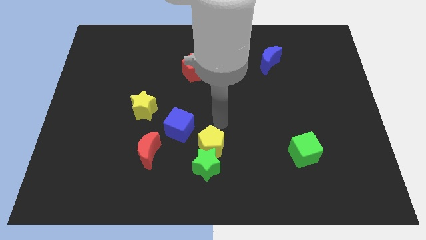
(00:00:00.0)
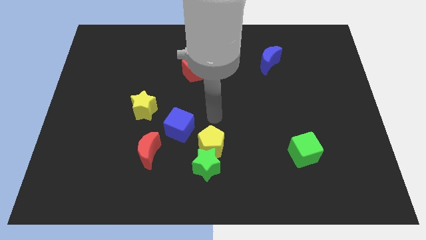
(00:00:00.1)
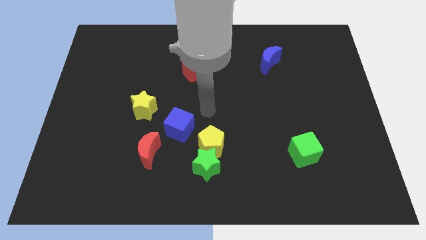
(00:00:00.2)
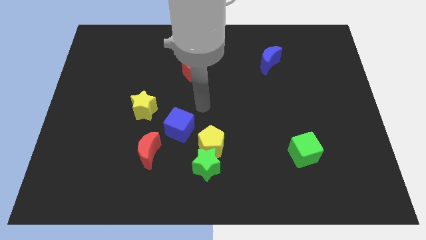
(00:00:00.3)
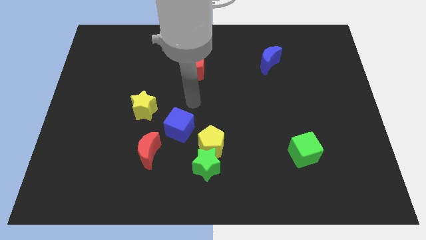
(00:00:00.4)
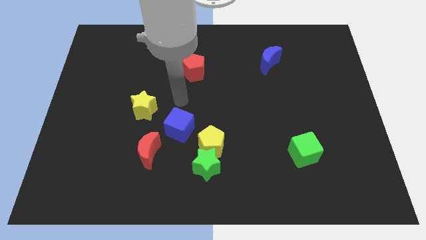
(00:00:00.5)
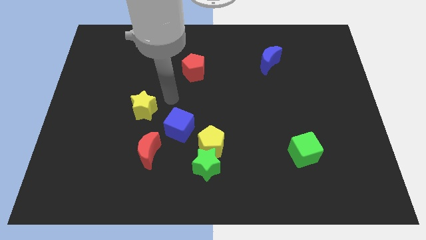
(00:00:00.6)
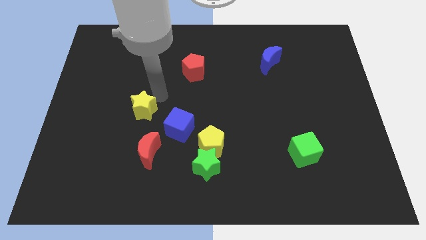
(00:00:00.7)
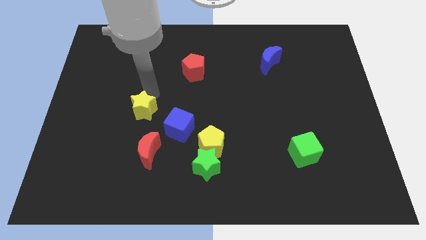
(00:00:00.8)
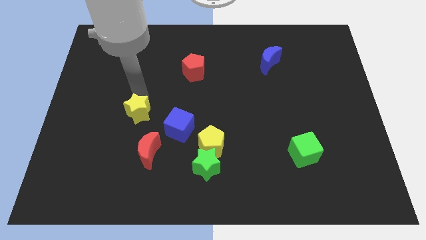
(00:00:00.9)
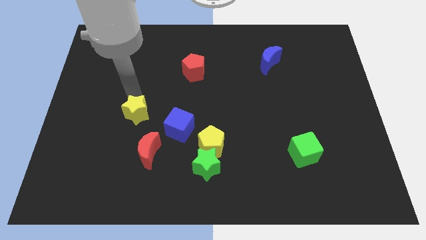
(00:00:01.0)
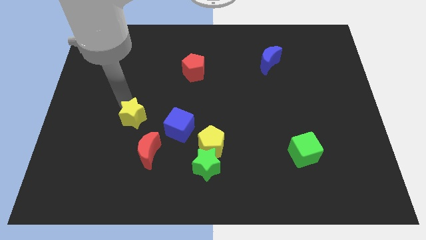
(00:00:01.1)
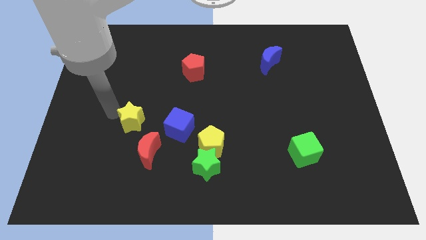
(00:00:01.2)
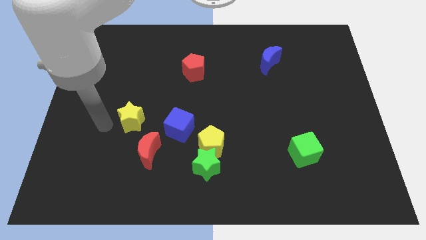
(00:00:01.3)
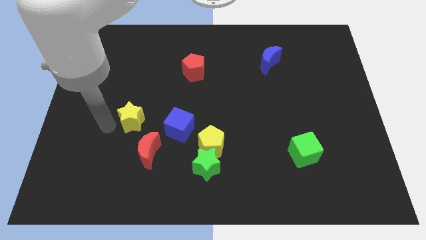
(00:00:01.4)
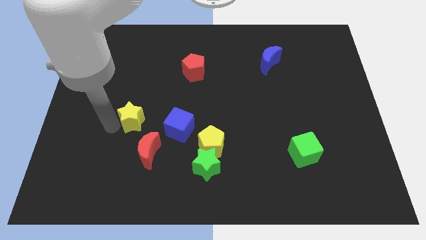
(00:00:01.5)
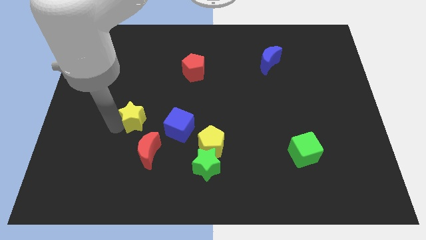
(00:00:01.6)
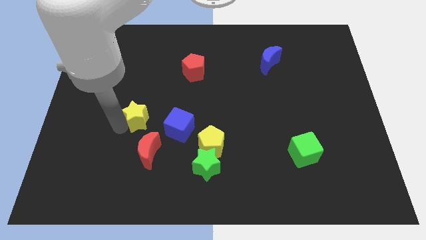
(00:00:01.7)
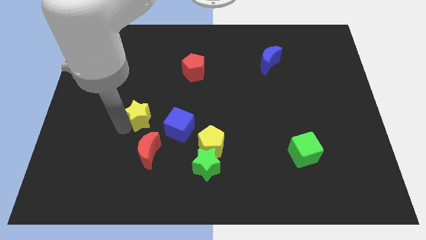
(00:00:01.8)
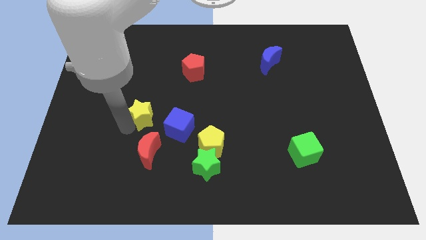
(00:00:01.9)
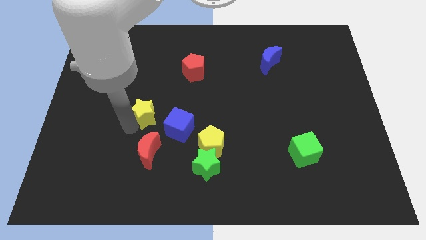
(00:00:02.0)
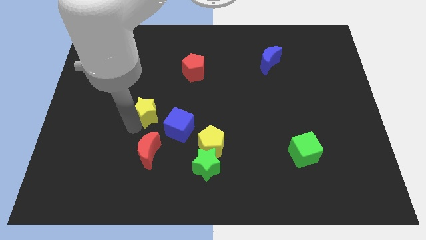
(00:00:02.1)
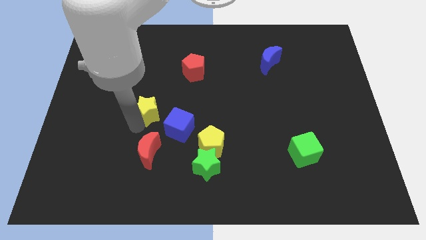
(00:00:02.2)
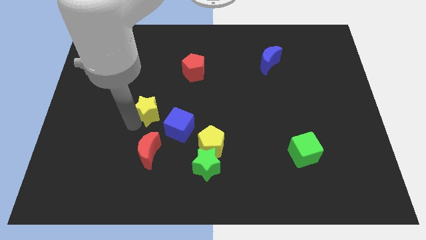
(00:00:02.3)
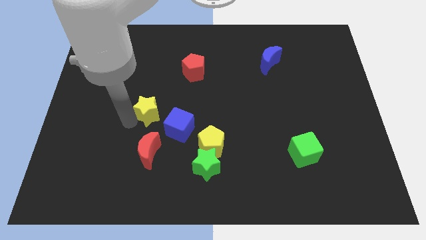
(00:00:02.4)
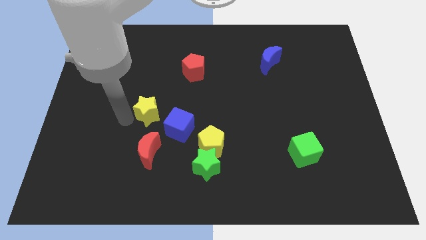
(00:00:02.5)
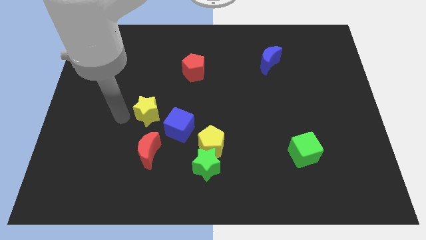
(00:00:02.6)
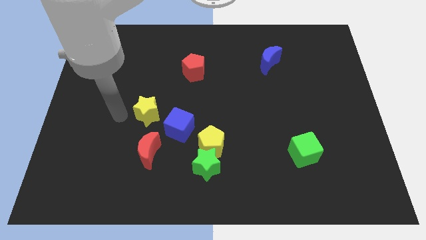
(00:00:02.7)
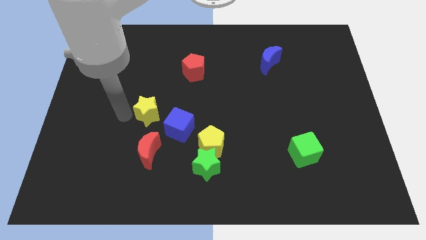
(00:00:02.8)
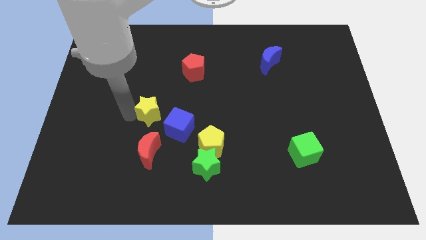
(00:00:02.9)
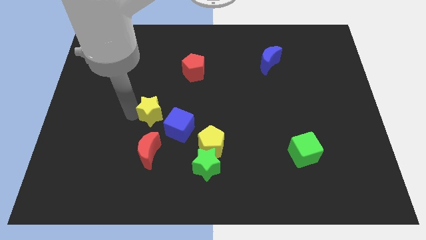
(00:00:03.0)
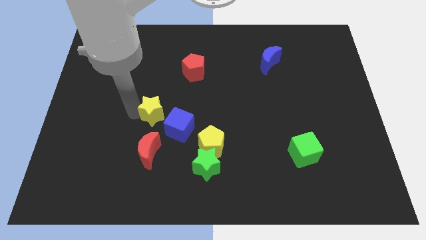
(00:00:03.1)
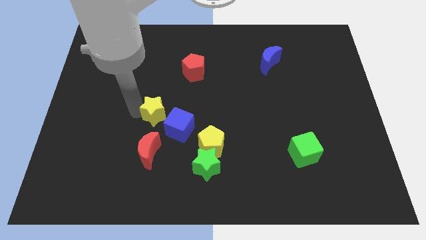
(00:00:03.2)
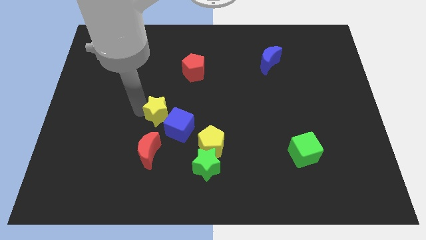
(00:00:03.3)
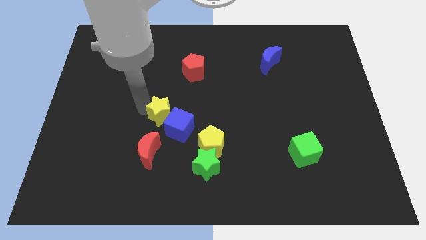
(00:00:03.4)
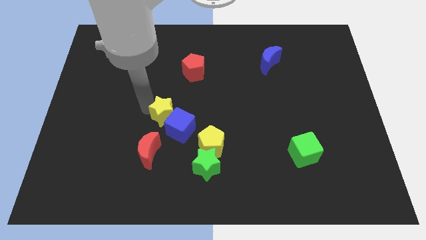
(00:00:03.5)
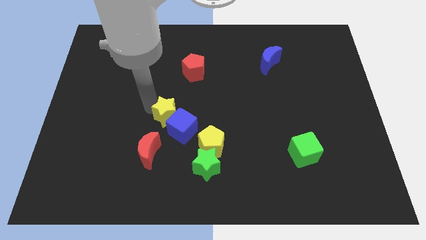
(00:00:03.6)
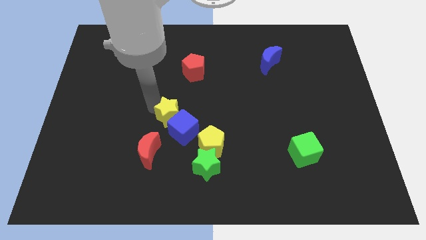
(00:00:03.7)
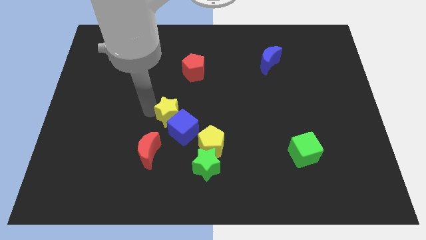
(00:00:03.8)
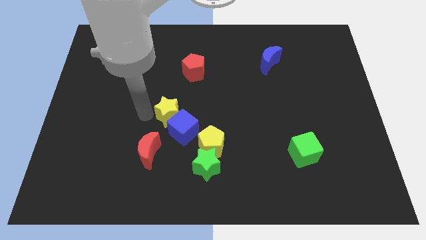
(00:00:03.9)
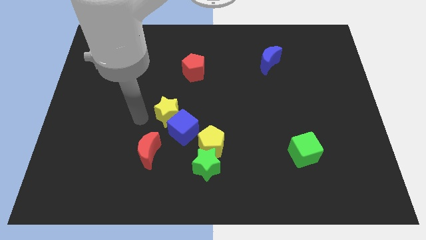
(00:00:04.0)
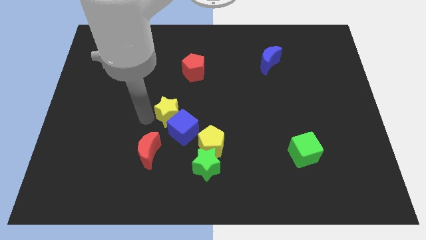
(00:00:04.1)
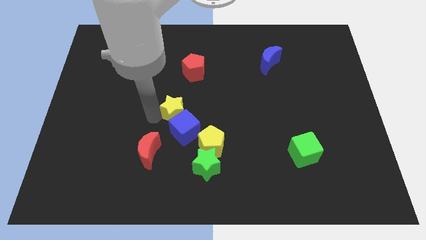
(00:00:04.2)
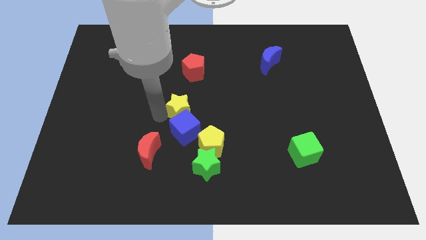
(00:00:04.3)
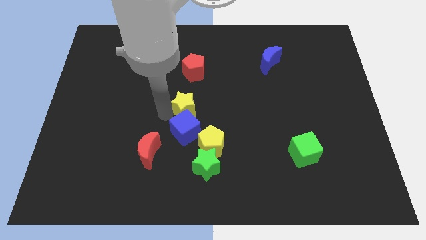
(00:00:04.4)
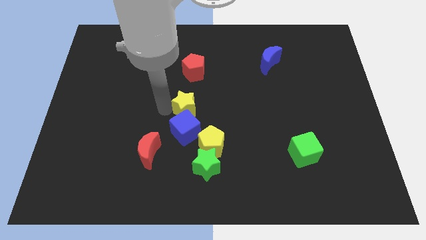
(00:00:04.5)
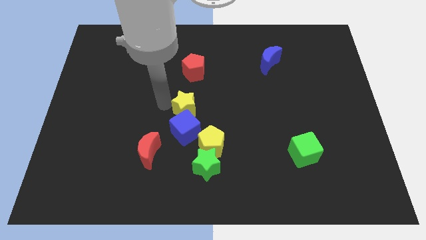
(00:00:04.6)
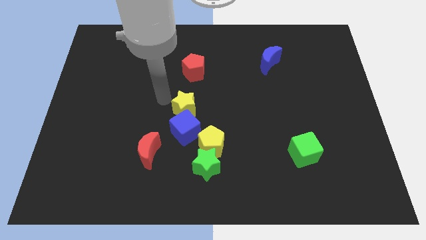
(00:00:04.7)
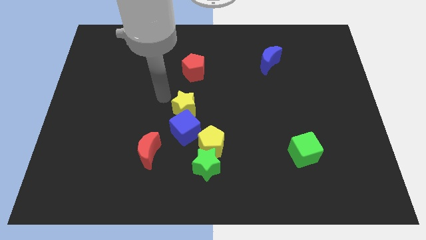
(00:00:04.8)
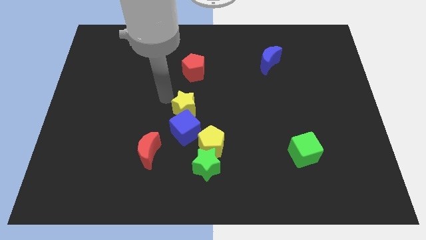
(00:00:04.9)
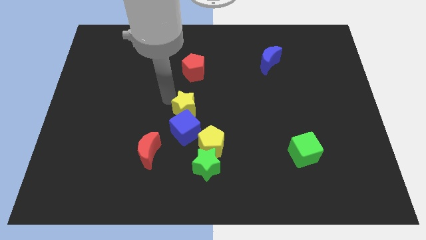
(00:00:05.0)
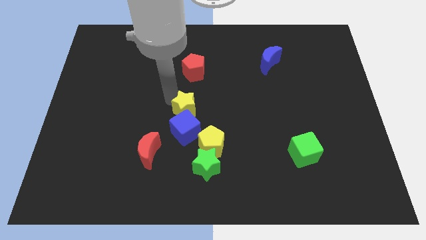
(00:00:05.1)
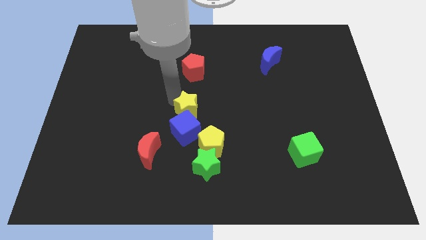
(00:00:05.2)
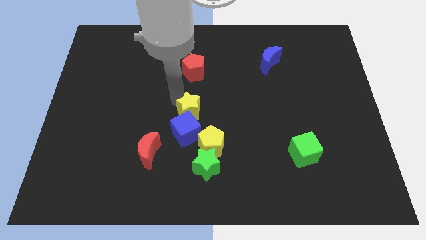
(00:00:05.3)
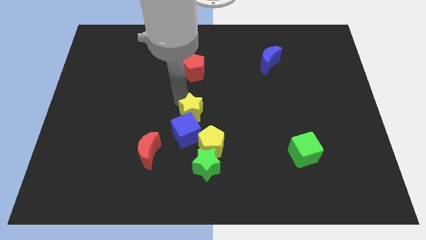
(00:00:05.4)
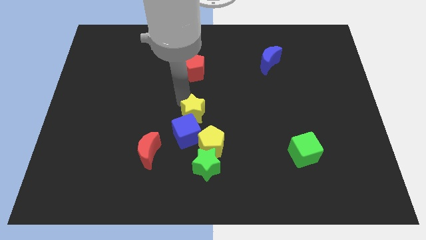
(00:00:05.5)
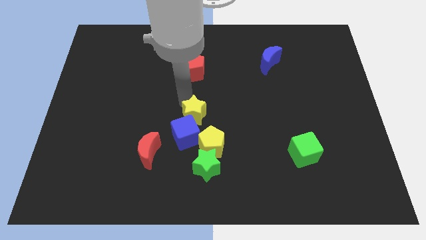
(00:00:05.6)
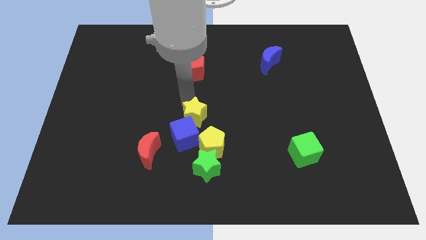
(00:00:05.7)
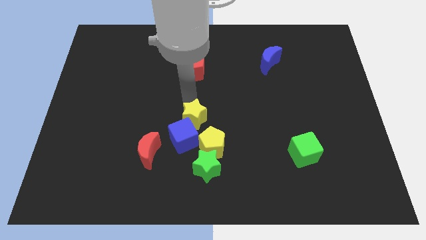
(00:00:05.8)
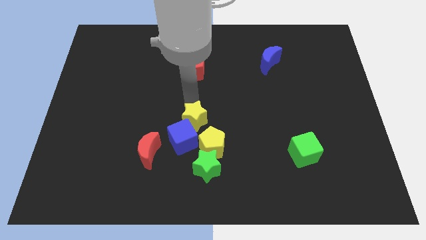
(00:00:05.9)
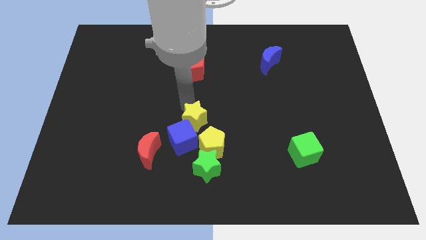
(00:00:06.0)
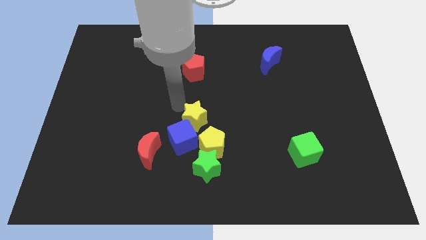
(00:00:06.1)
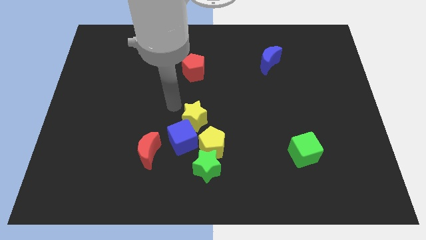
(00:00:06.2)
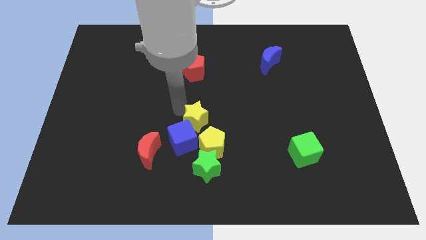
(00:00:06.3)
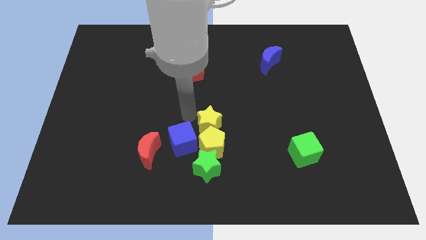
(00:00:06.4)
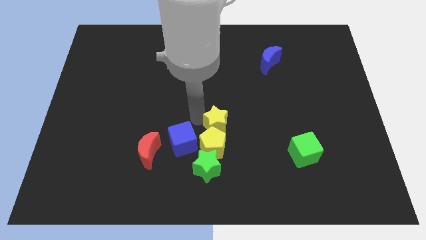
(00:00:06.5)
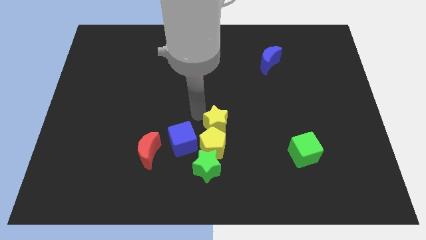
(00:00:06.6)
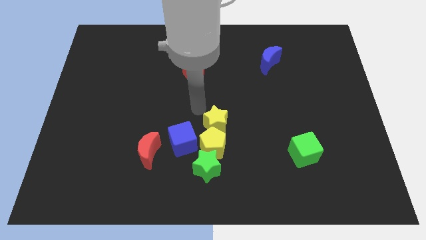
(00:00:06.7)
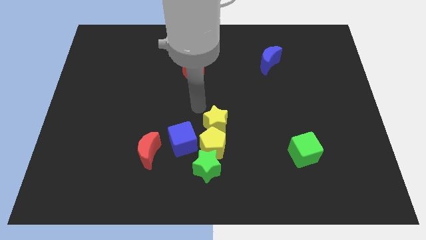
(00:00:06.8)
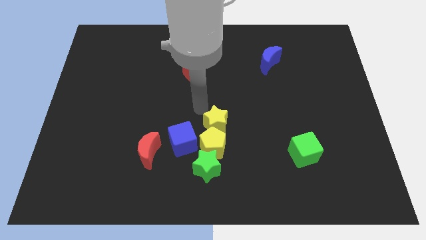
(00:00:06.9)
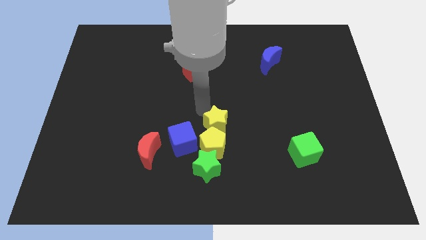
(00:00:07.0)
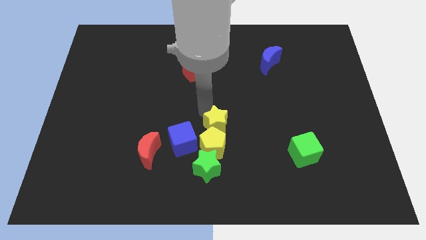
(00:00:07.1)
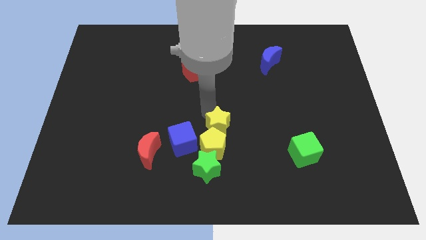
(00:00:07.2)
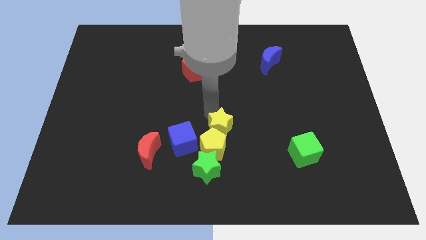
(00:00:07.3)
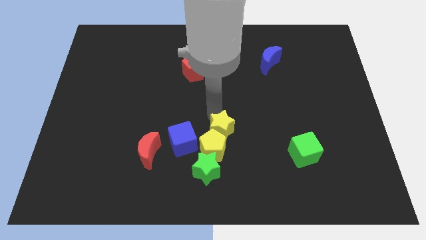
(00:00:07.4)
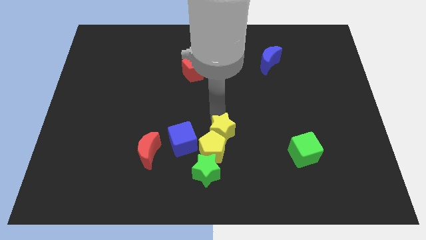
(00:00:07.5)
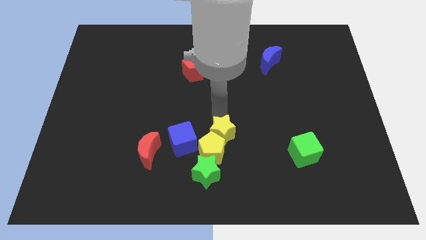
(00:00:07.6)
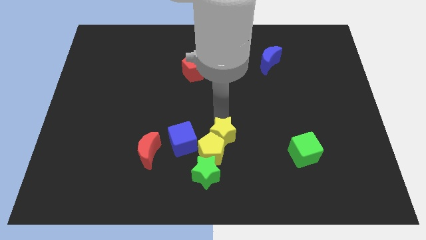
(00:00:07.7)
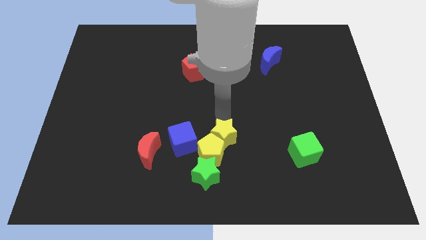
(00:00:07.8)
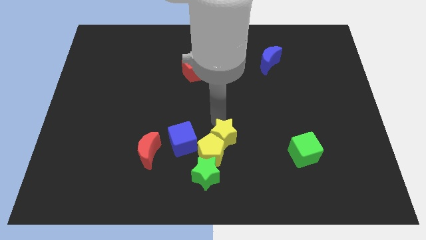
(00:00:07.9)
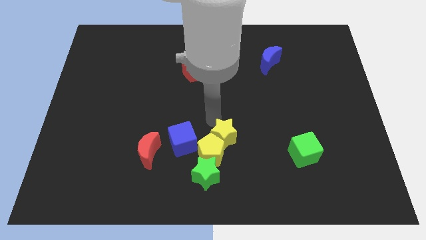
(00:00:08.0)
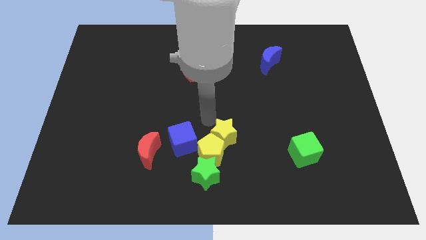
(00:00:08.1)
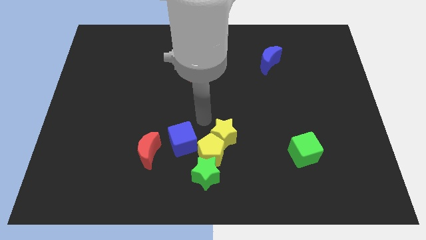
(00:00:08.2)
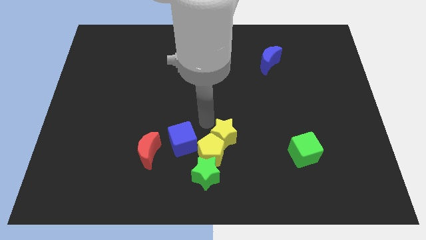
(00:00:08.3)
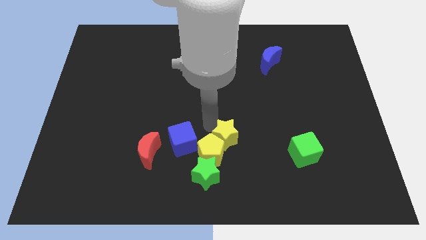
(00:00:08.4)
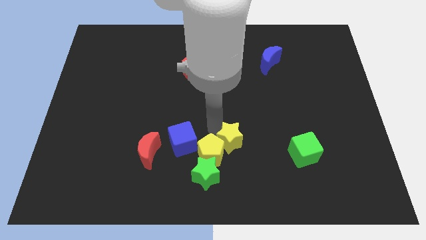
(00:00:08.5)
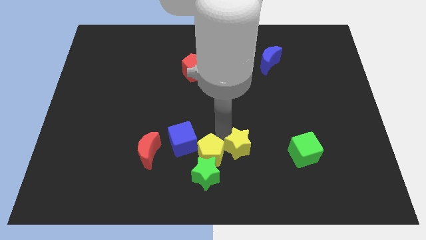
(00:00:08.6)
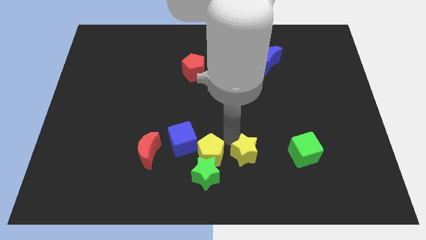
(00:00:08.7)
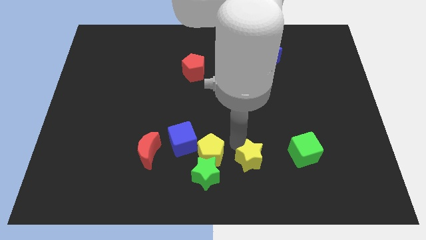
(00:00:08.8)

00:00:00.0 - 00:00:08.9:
slide the yellow star right of the green star
